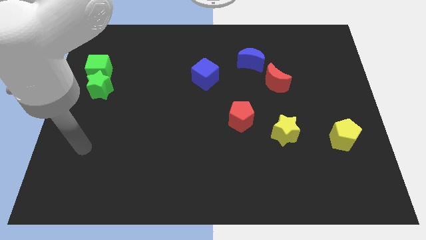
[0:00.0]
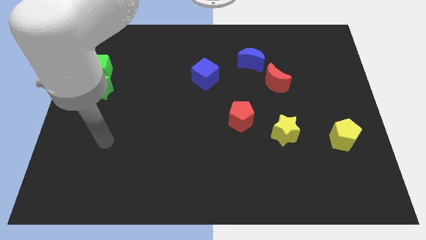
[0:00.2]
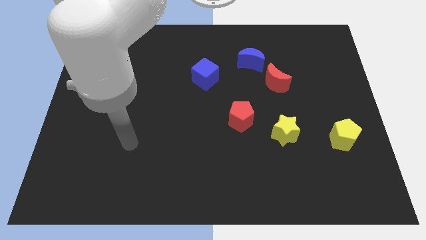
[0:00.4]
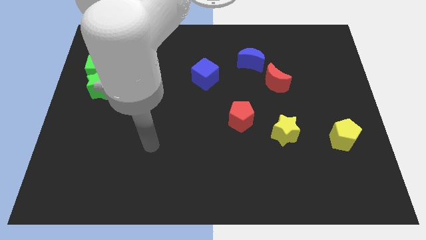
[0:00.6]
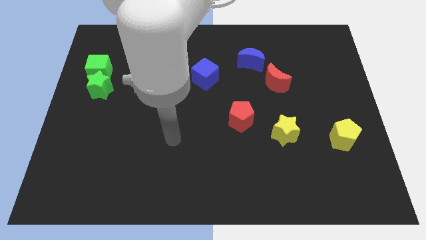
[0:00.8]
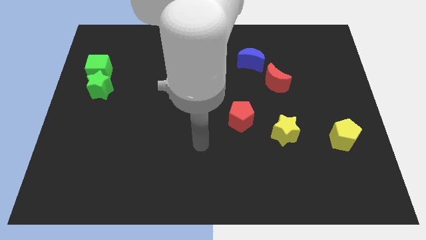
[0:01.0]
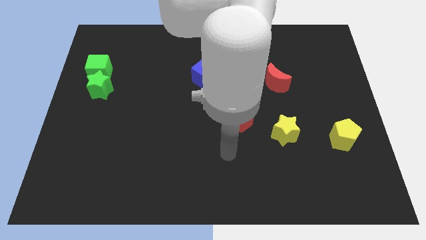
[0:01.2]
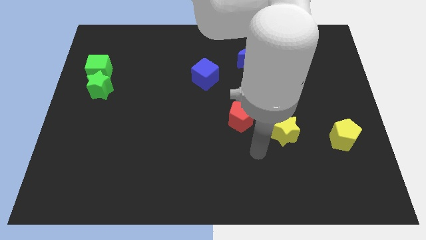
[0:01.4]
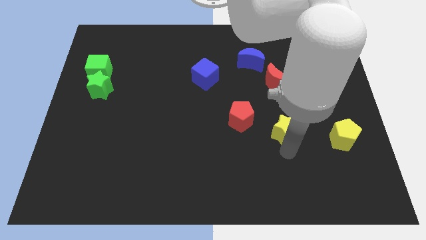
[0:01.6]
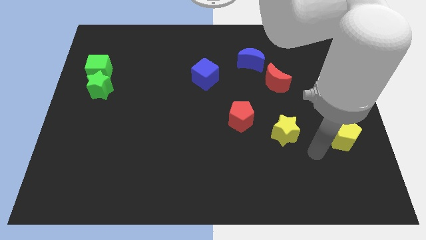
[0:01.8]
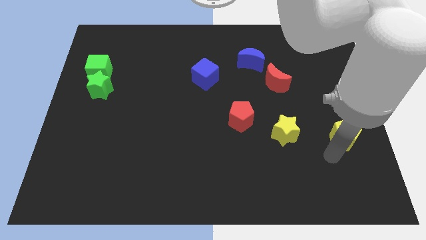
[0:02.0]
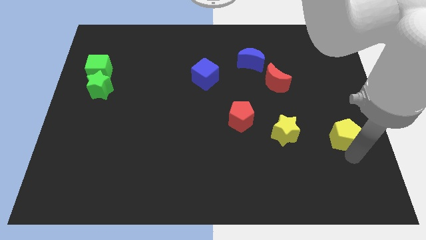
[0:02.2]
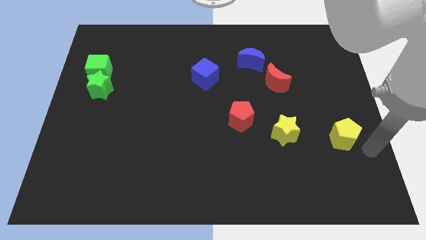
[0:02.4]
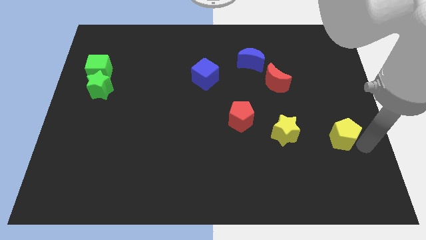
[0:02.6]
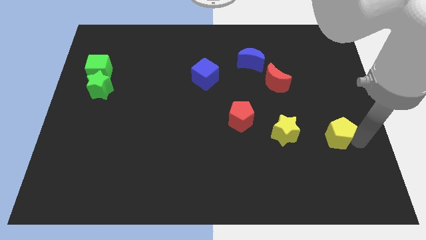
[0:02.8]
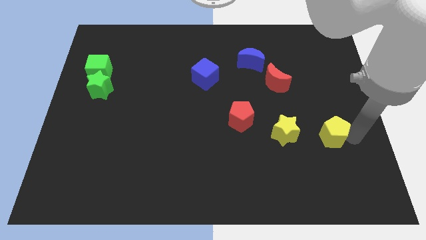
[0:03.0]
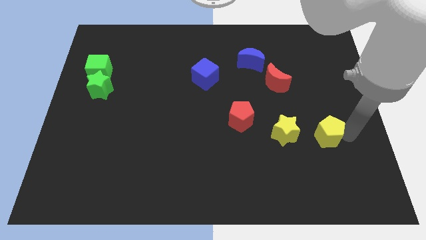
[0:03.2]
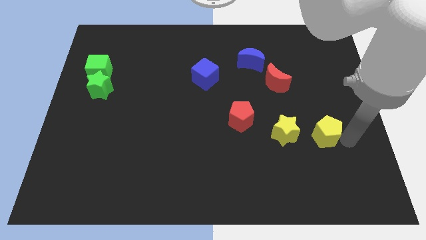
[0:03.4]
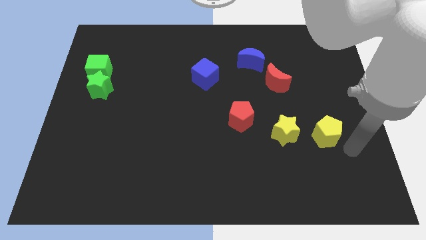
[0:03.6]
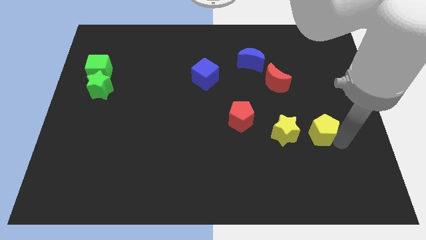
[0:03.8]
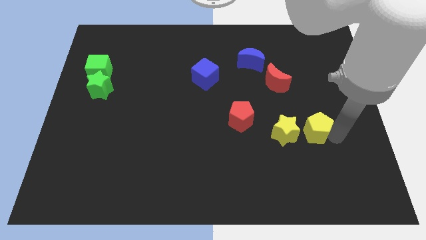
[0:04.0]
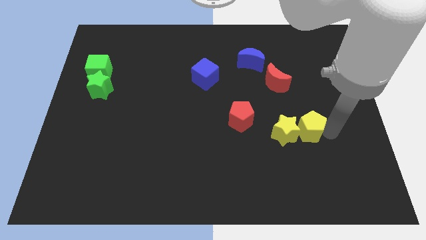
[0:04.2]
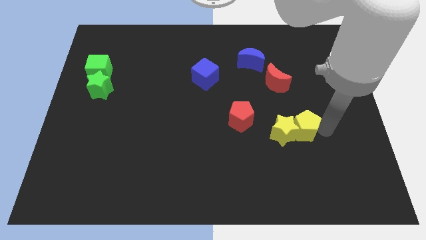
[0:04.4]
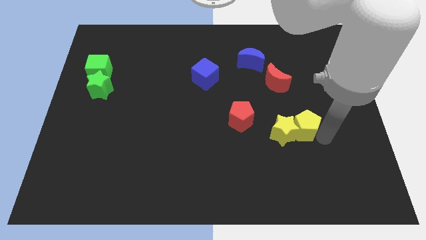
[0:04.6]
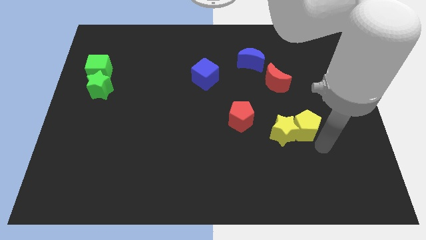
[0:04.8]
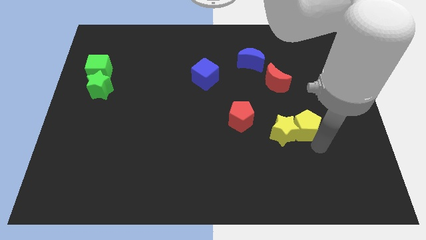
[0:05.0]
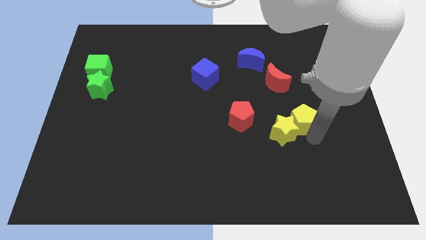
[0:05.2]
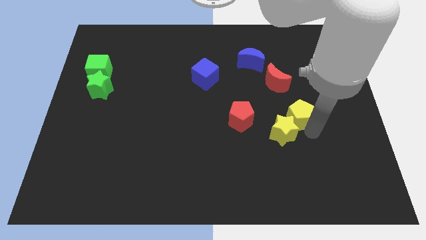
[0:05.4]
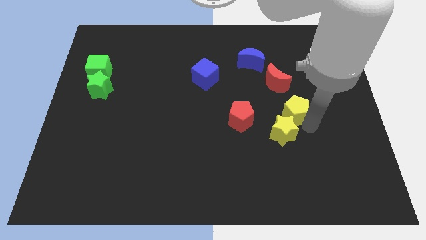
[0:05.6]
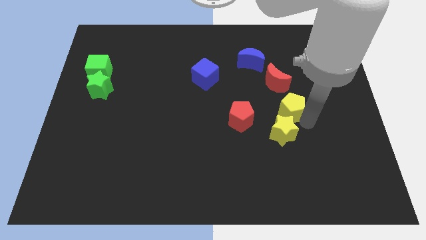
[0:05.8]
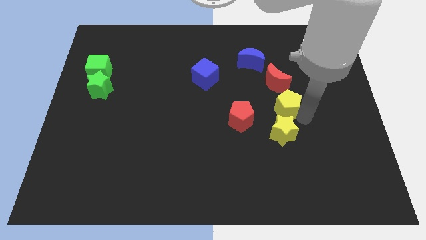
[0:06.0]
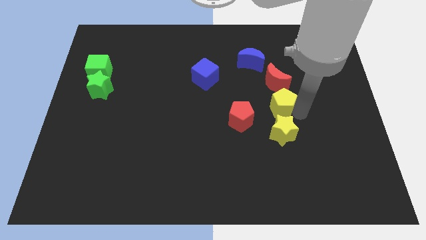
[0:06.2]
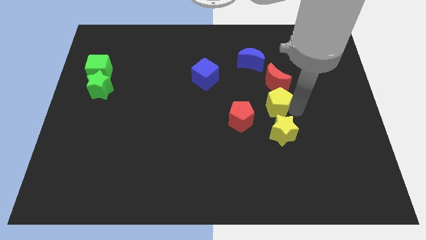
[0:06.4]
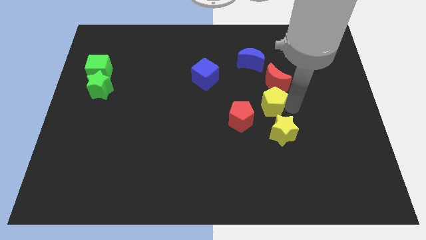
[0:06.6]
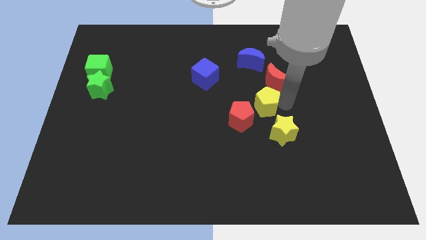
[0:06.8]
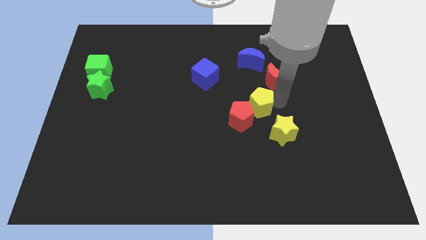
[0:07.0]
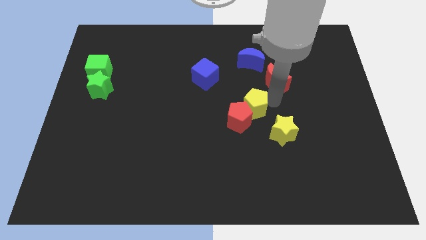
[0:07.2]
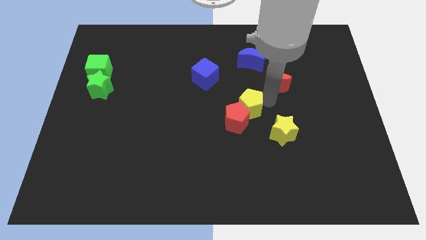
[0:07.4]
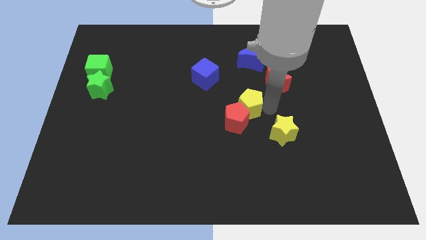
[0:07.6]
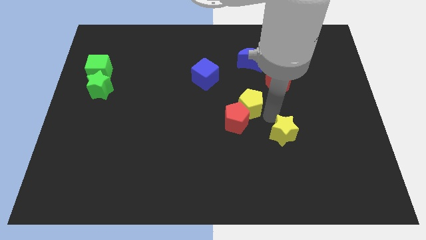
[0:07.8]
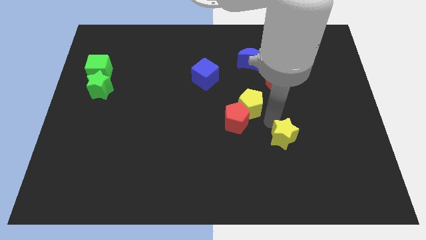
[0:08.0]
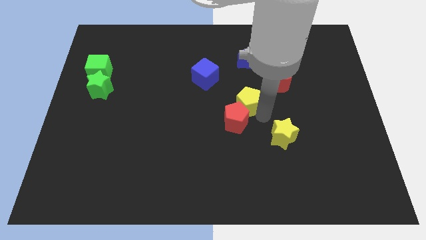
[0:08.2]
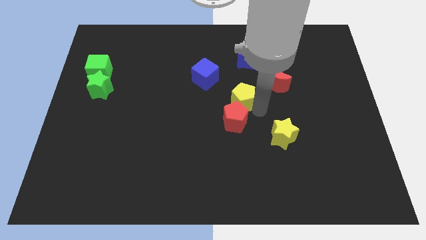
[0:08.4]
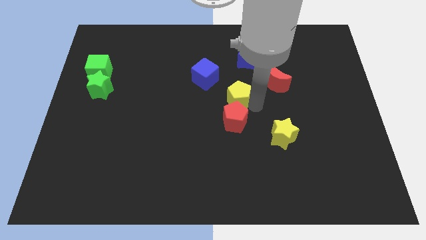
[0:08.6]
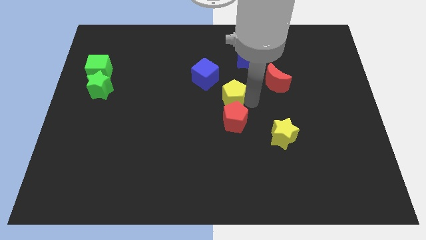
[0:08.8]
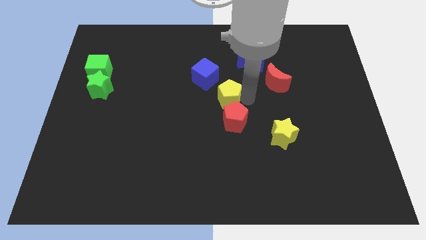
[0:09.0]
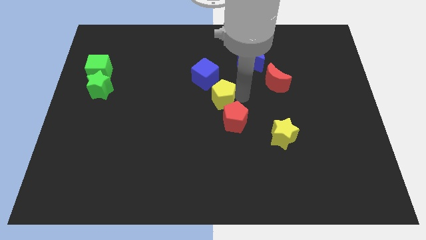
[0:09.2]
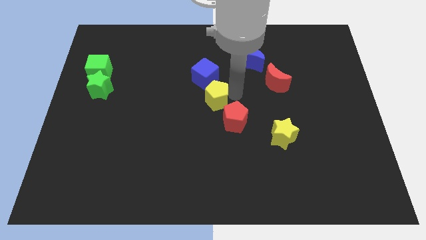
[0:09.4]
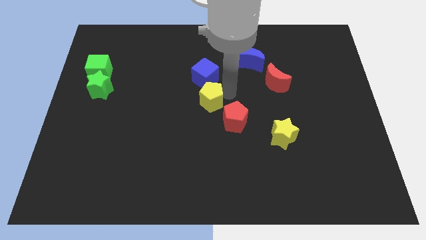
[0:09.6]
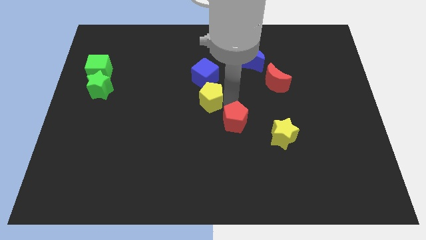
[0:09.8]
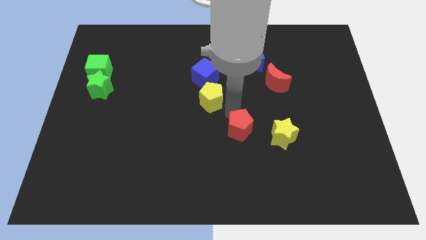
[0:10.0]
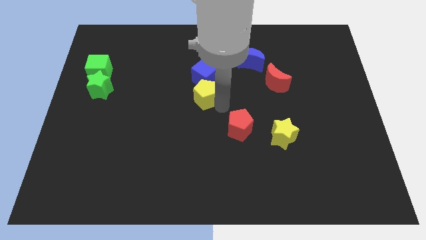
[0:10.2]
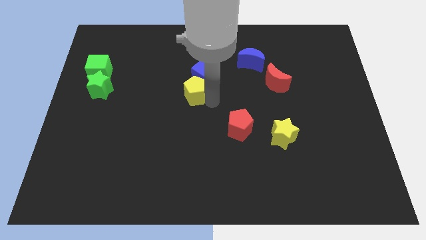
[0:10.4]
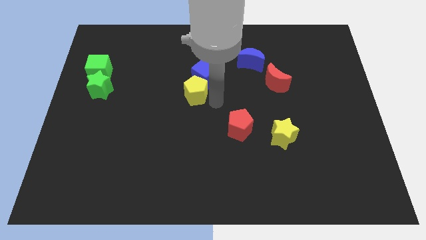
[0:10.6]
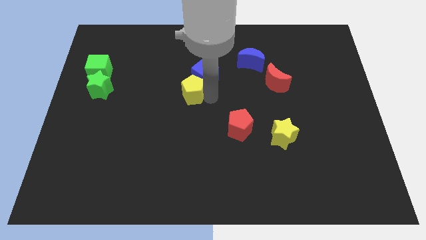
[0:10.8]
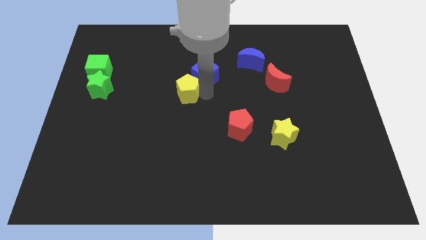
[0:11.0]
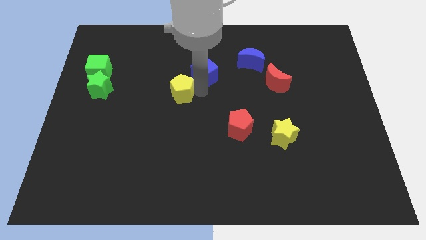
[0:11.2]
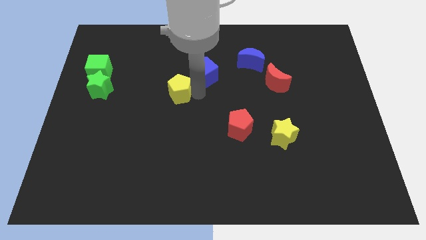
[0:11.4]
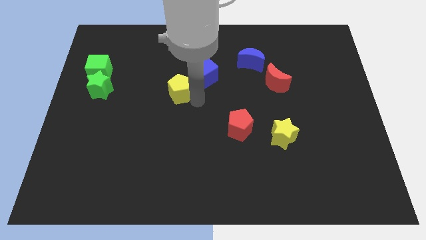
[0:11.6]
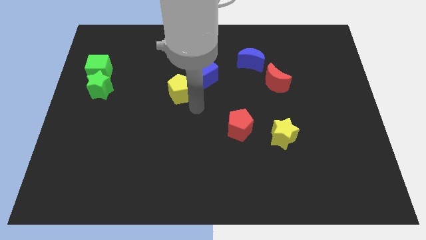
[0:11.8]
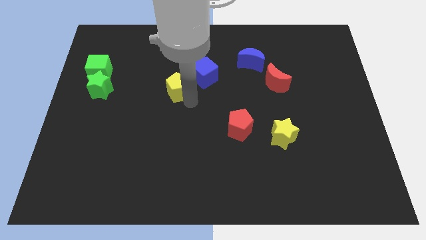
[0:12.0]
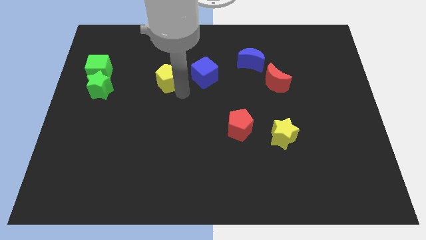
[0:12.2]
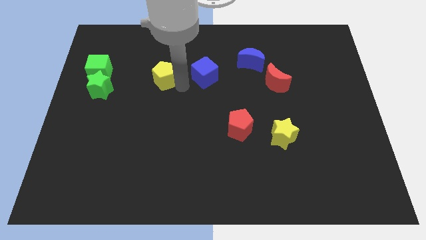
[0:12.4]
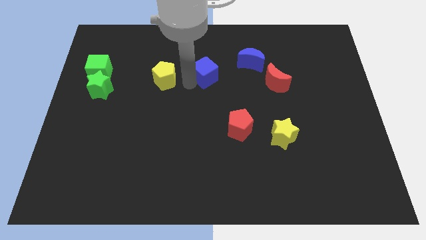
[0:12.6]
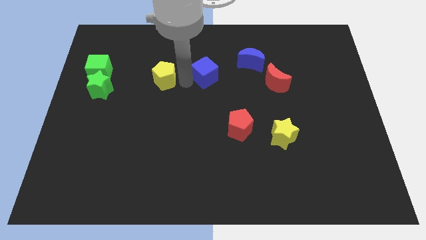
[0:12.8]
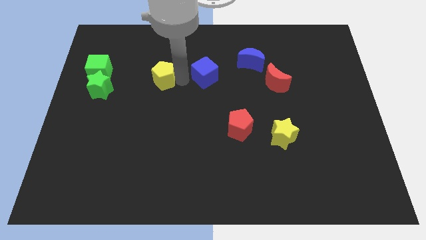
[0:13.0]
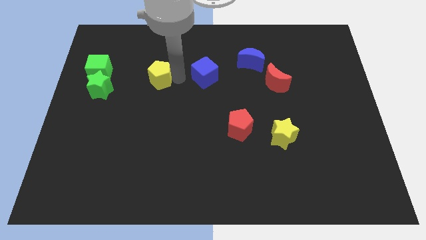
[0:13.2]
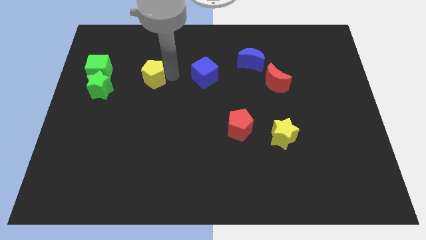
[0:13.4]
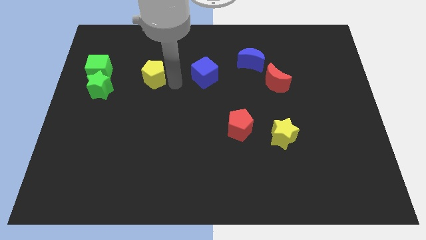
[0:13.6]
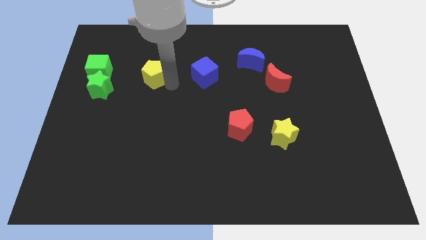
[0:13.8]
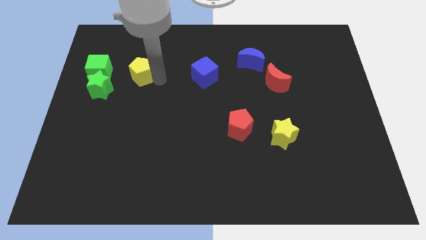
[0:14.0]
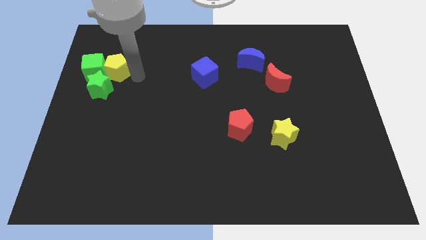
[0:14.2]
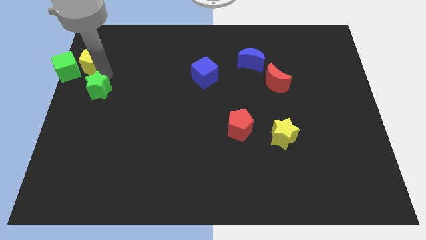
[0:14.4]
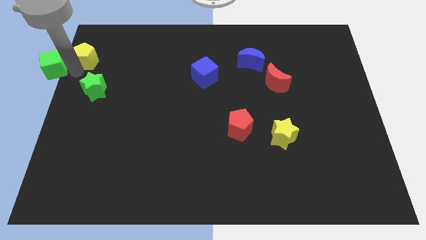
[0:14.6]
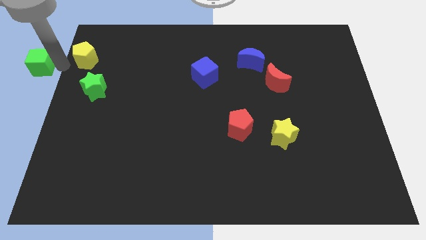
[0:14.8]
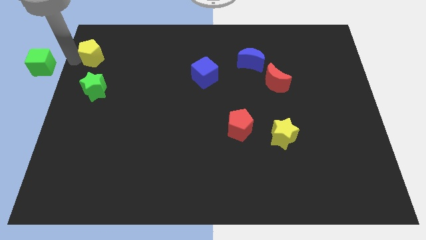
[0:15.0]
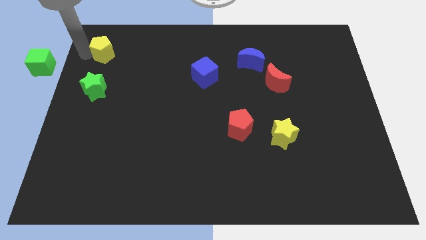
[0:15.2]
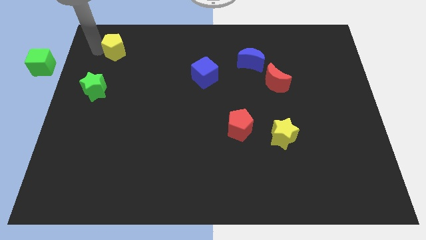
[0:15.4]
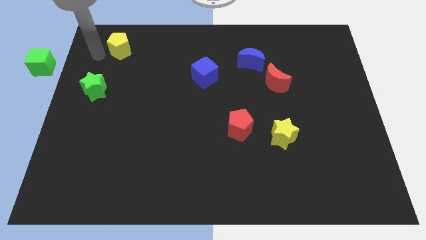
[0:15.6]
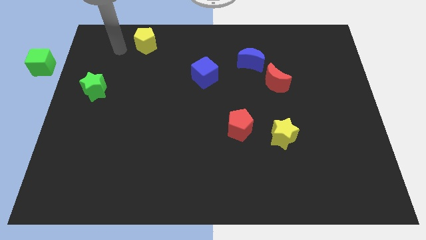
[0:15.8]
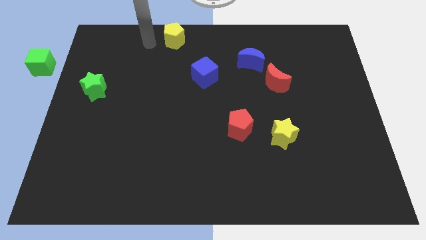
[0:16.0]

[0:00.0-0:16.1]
slide the yellow pentagon to the top

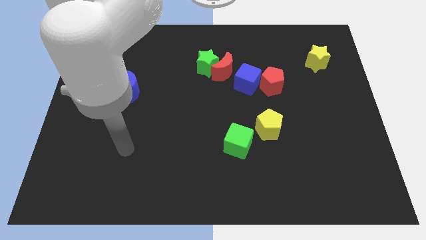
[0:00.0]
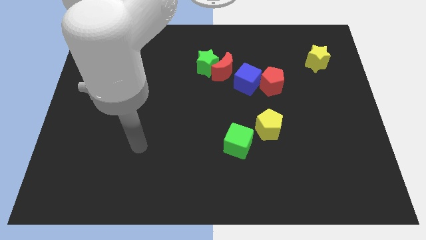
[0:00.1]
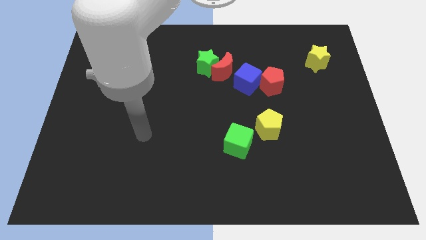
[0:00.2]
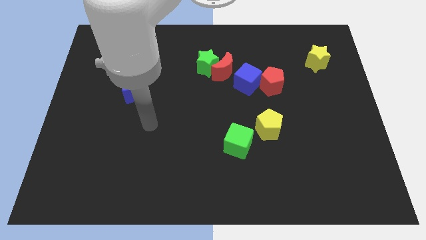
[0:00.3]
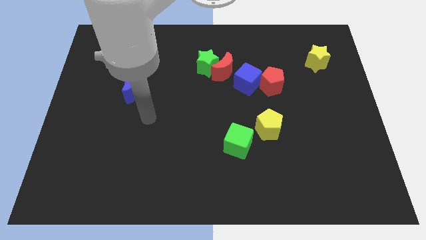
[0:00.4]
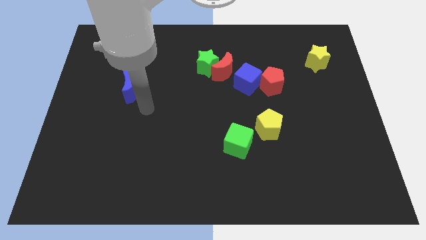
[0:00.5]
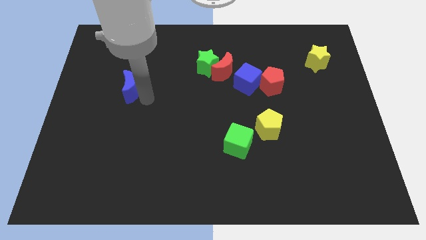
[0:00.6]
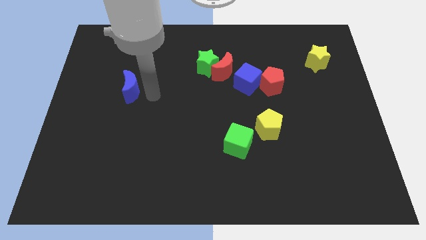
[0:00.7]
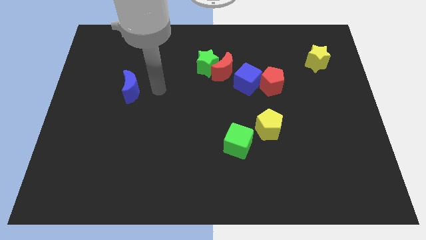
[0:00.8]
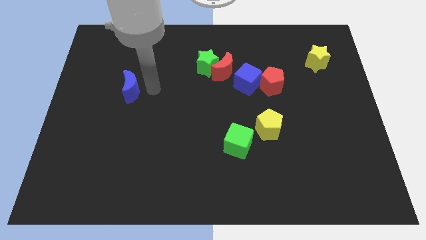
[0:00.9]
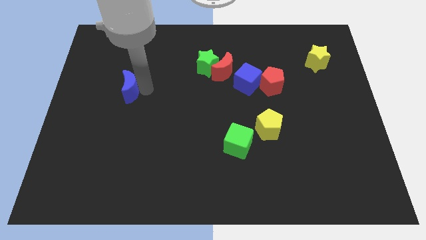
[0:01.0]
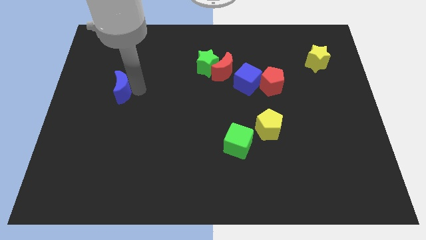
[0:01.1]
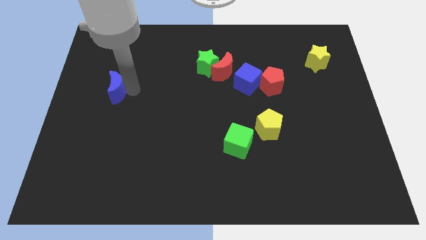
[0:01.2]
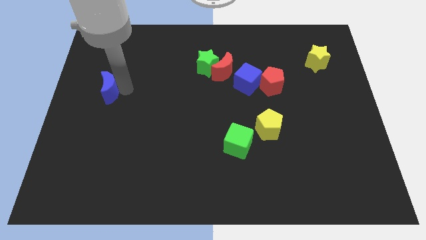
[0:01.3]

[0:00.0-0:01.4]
slide the blue moon to the left side of the board
